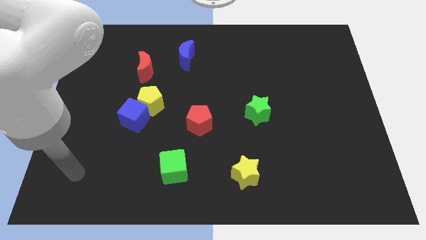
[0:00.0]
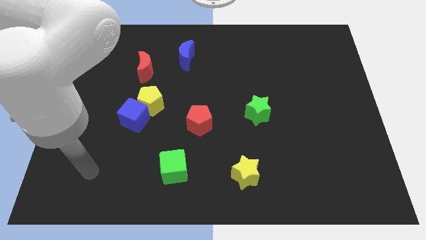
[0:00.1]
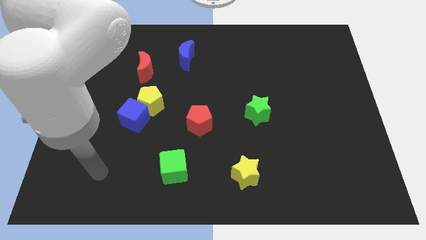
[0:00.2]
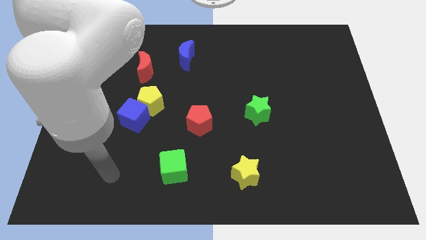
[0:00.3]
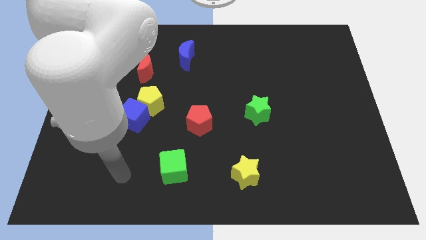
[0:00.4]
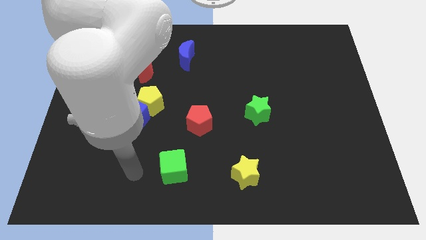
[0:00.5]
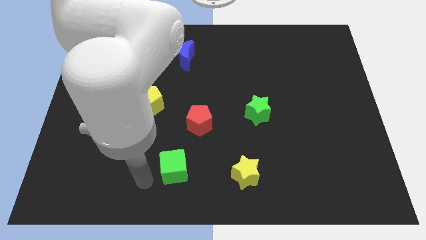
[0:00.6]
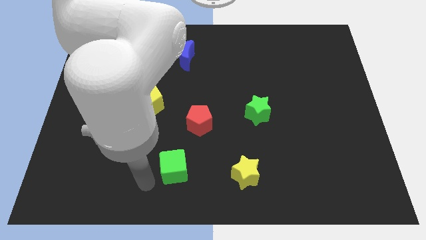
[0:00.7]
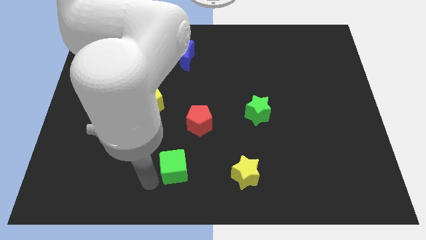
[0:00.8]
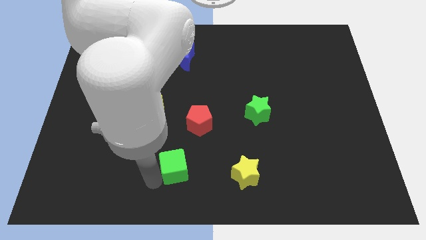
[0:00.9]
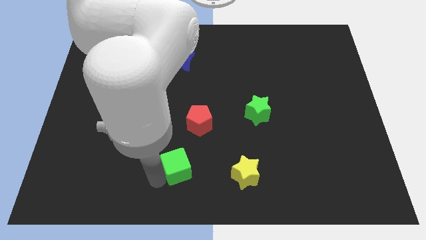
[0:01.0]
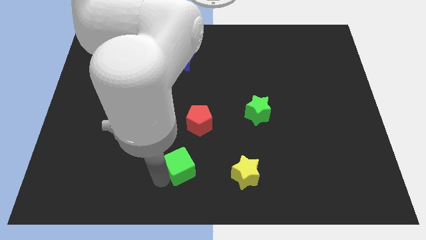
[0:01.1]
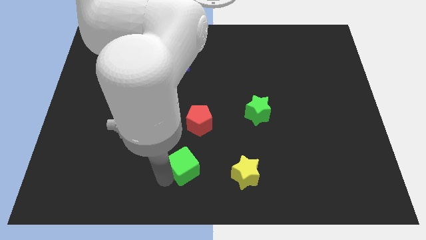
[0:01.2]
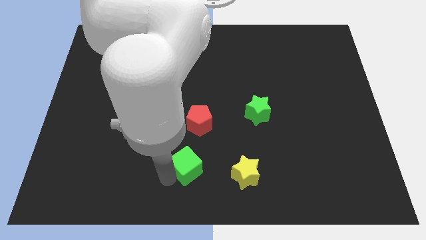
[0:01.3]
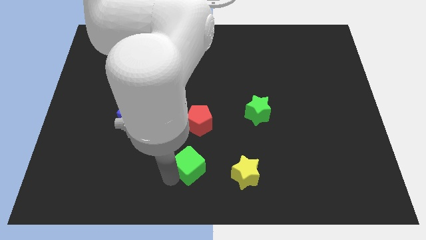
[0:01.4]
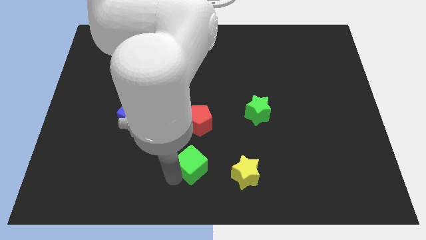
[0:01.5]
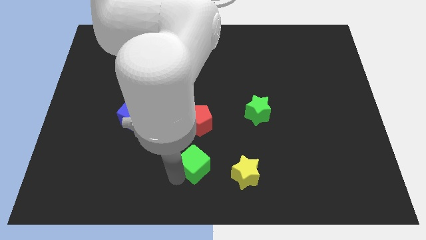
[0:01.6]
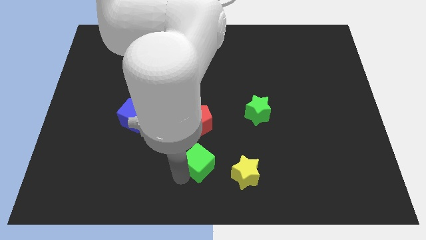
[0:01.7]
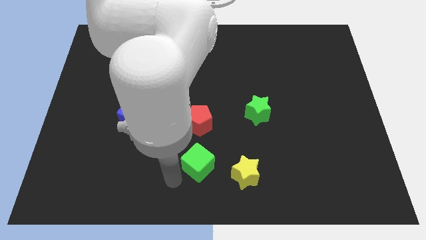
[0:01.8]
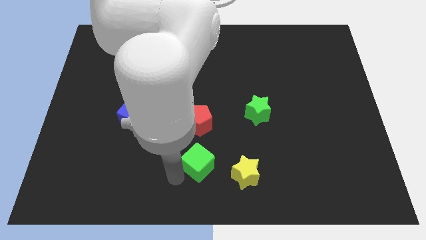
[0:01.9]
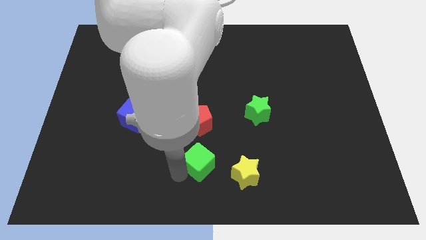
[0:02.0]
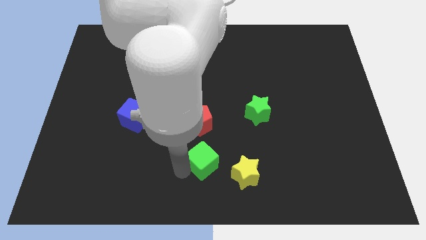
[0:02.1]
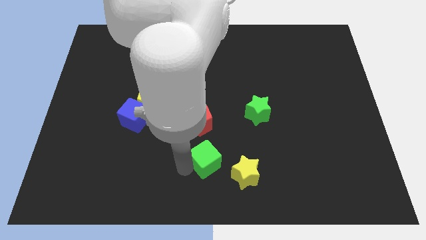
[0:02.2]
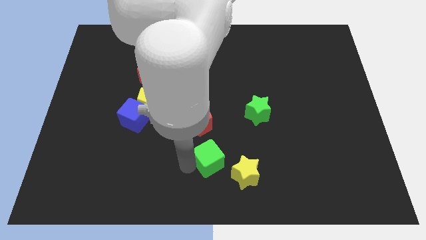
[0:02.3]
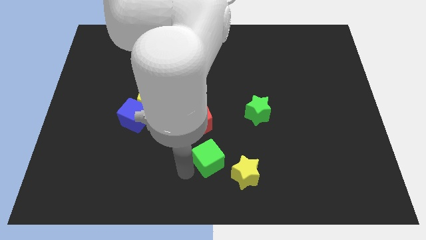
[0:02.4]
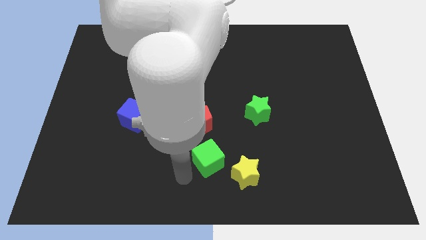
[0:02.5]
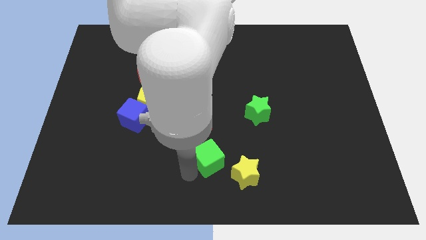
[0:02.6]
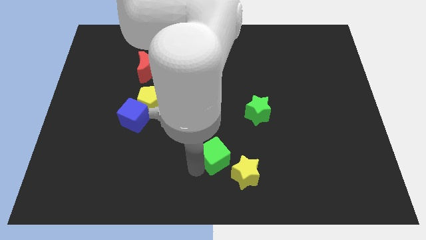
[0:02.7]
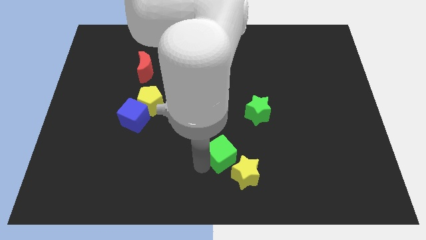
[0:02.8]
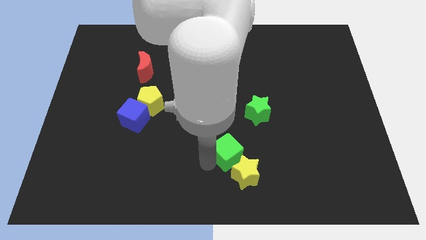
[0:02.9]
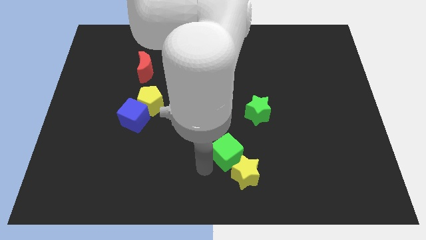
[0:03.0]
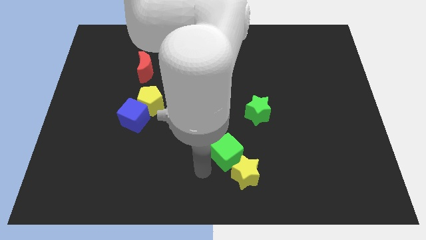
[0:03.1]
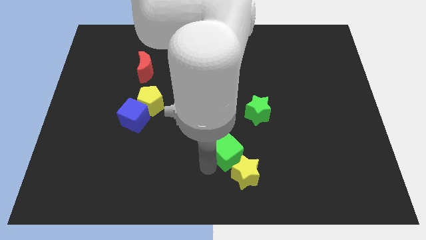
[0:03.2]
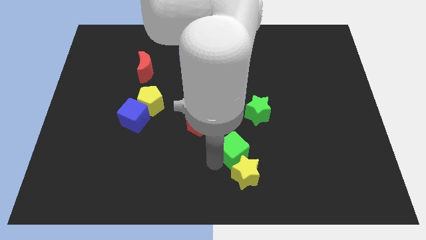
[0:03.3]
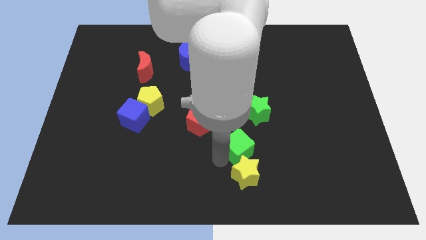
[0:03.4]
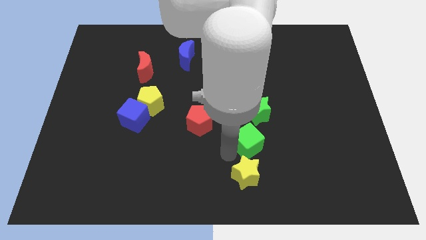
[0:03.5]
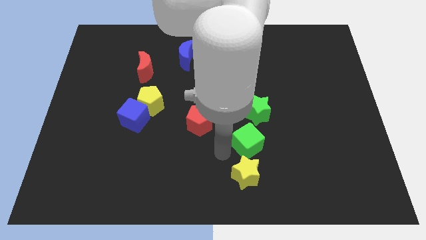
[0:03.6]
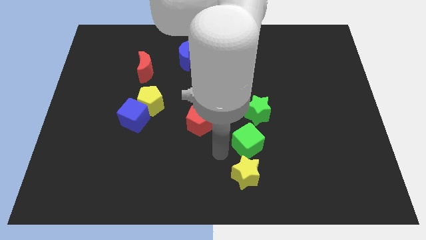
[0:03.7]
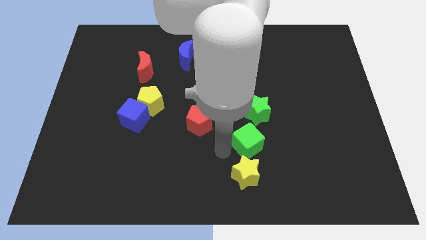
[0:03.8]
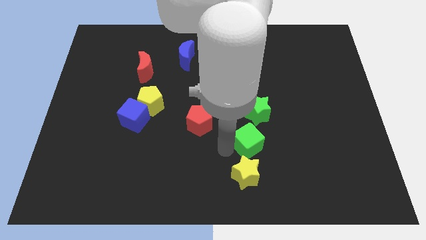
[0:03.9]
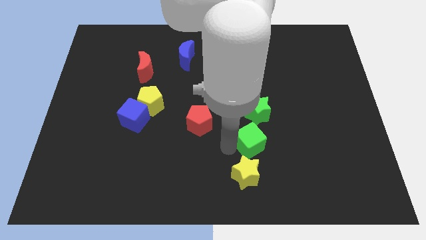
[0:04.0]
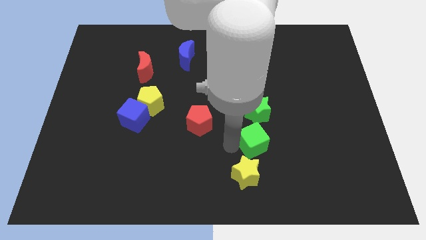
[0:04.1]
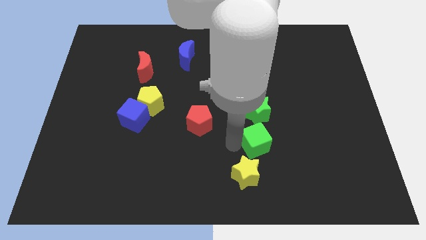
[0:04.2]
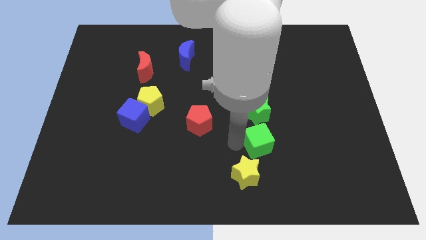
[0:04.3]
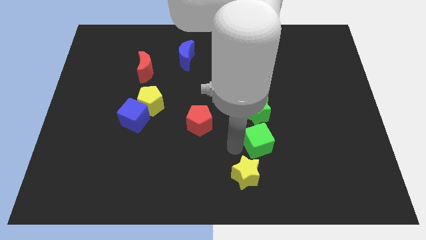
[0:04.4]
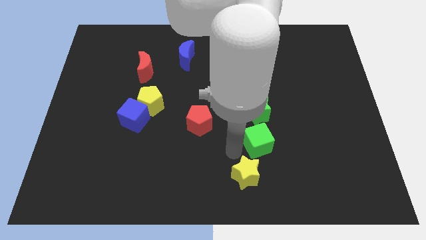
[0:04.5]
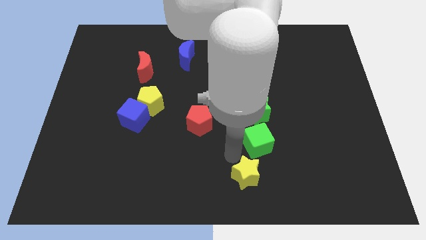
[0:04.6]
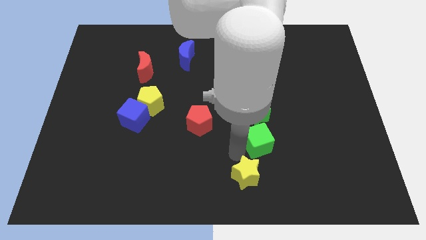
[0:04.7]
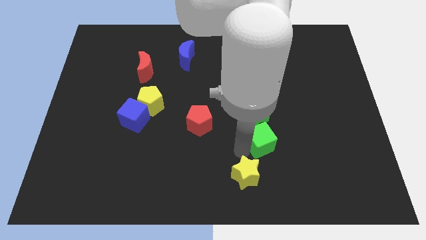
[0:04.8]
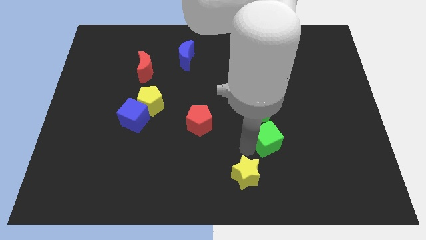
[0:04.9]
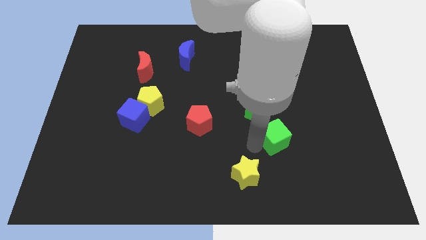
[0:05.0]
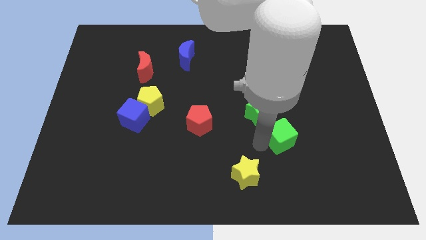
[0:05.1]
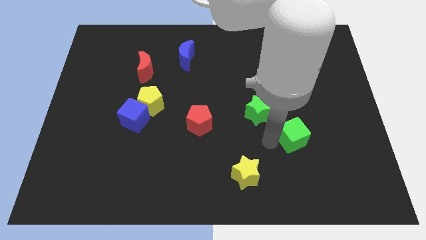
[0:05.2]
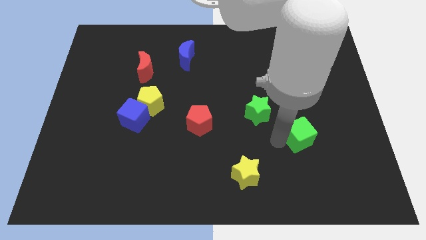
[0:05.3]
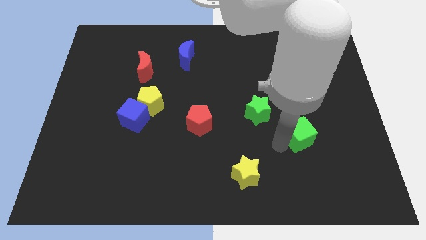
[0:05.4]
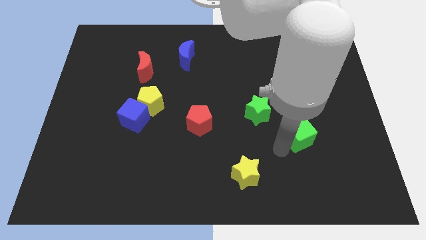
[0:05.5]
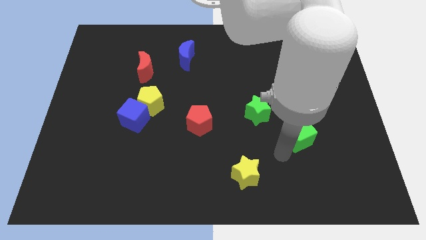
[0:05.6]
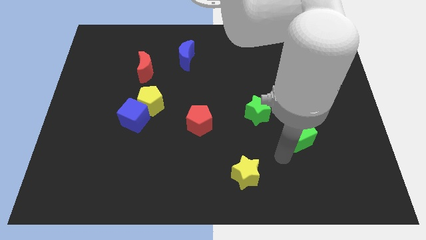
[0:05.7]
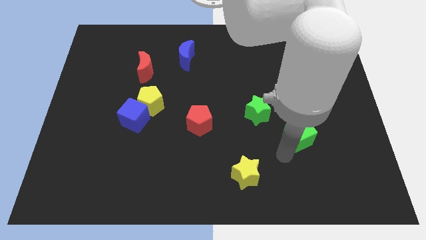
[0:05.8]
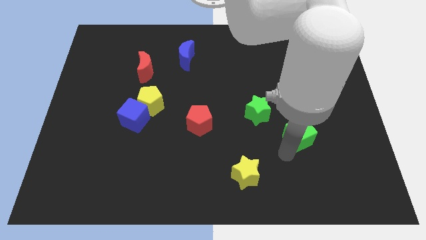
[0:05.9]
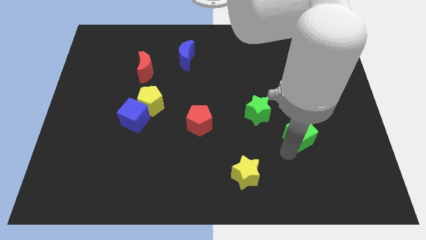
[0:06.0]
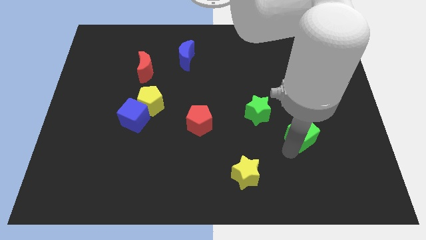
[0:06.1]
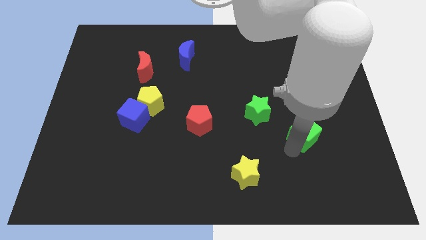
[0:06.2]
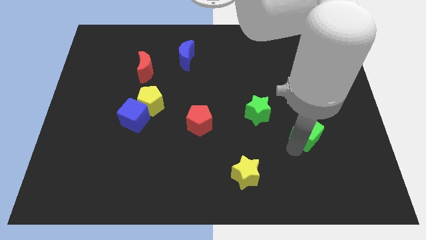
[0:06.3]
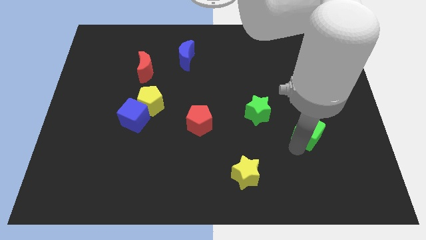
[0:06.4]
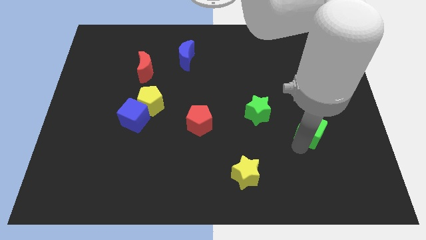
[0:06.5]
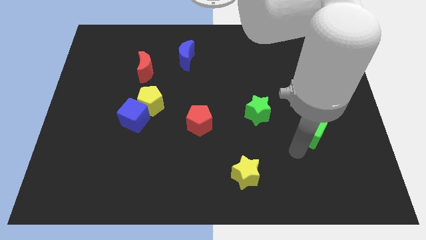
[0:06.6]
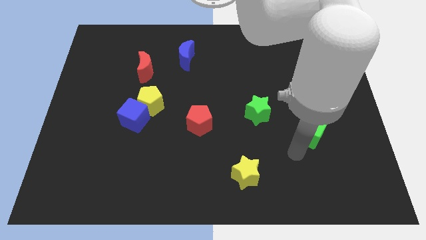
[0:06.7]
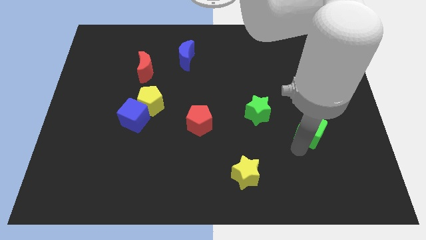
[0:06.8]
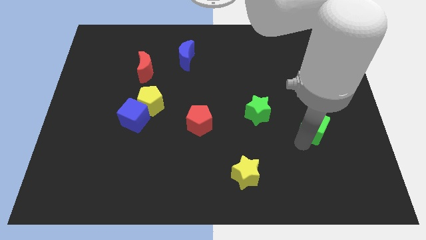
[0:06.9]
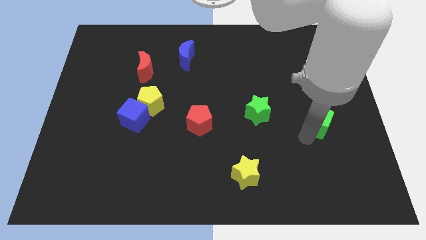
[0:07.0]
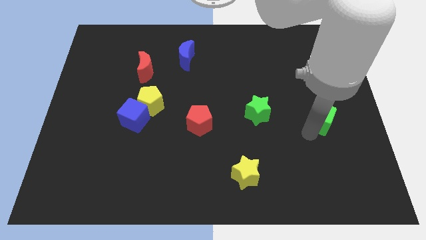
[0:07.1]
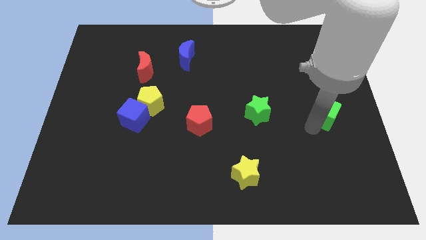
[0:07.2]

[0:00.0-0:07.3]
slide the green cube to the right side
